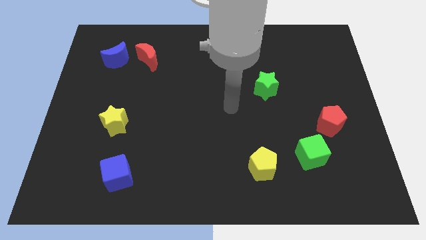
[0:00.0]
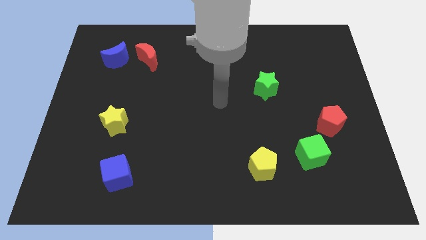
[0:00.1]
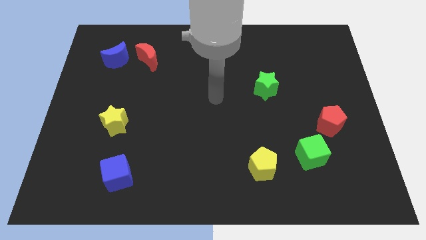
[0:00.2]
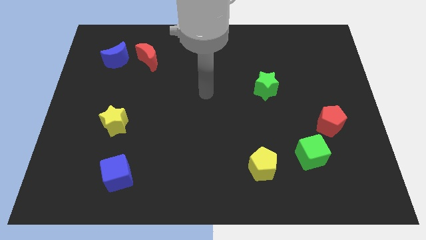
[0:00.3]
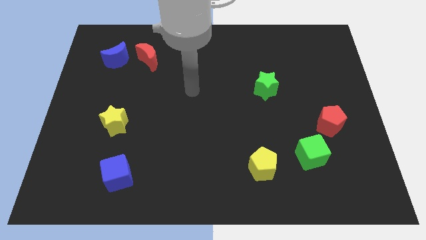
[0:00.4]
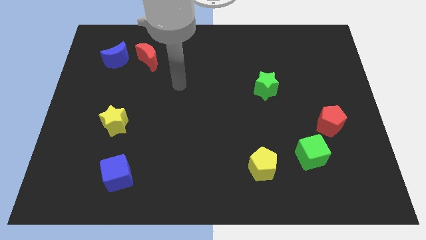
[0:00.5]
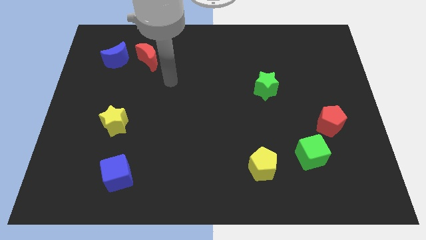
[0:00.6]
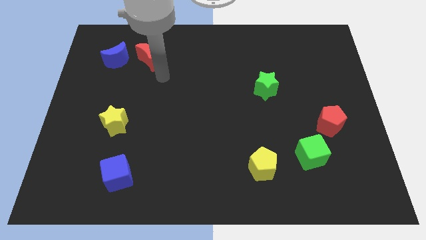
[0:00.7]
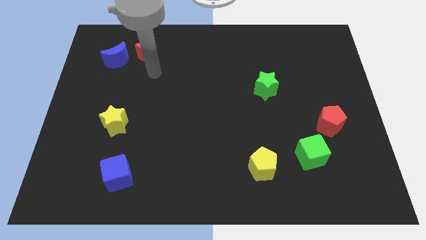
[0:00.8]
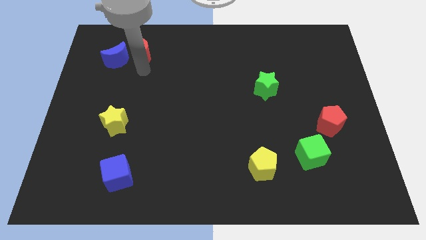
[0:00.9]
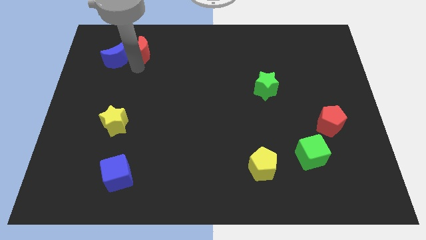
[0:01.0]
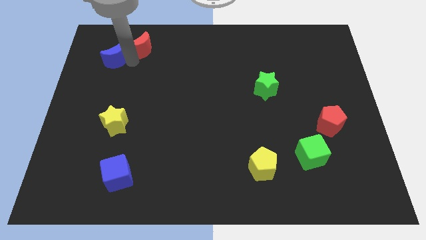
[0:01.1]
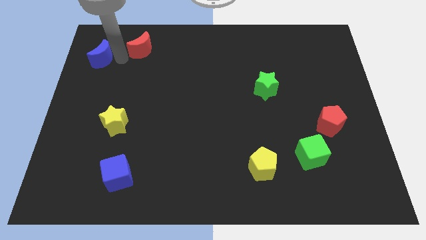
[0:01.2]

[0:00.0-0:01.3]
separate the red moon from the blue moon

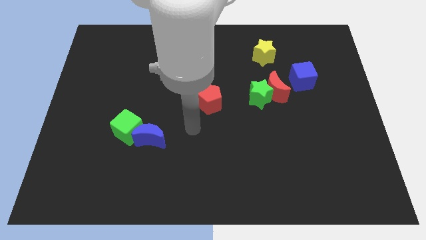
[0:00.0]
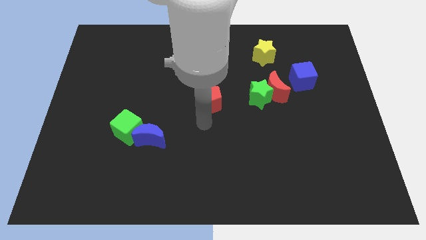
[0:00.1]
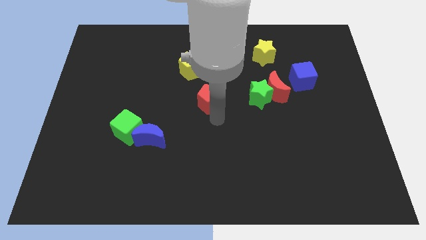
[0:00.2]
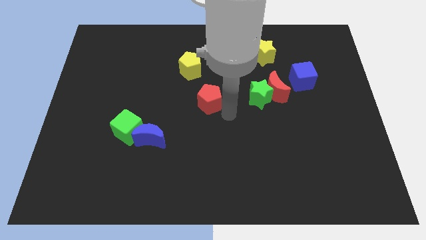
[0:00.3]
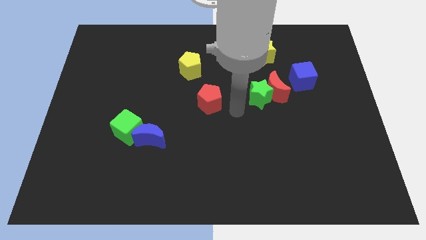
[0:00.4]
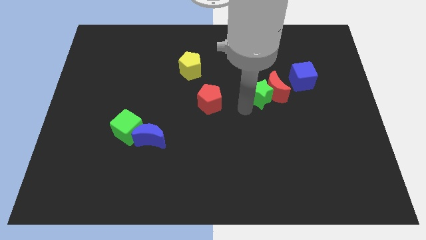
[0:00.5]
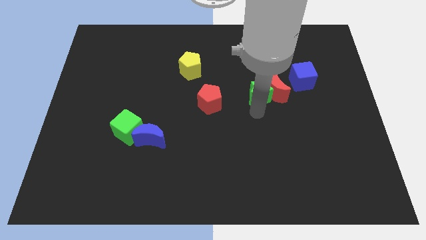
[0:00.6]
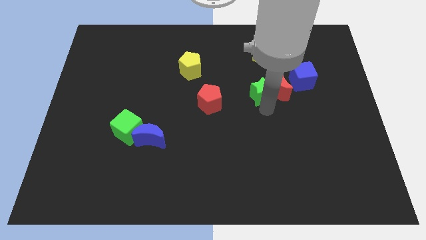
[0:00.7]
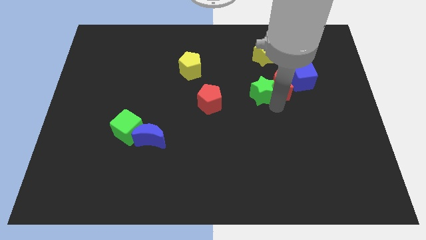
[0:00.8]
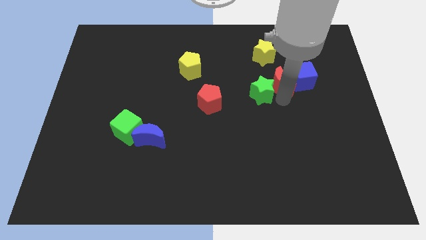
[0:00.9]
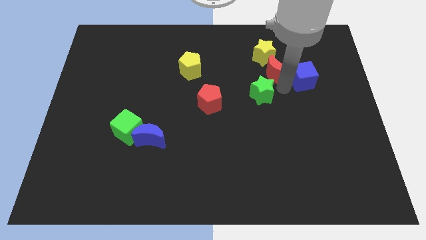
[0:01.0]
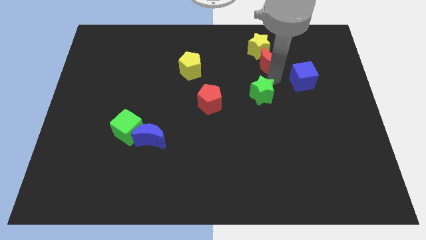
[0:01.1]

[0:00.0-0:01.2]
pull the green star apart from the red moon

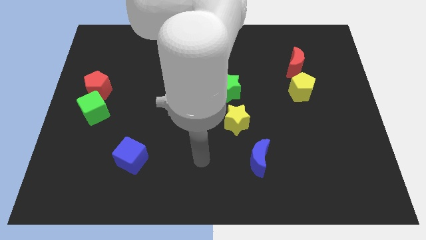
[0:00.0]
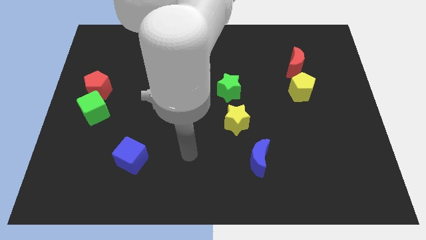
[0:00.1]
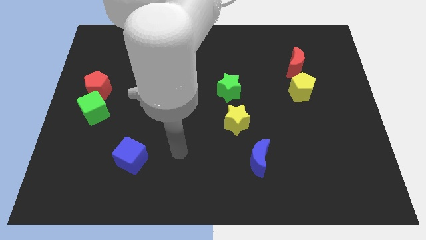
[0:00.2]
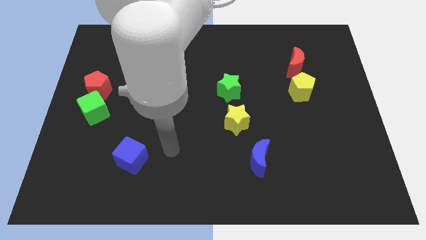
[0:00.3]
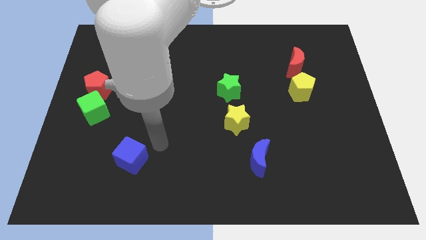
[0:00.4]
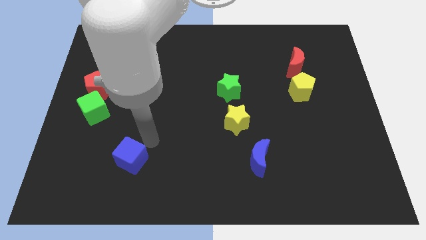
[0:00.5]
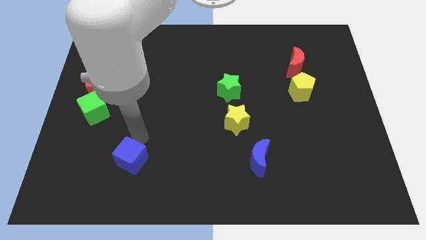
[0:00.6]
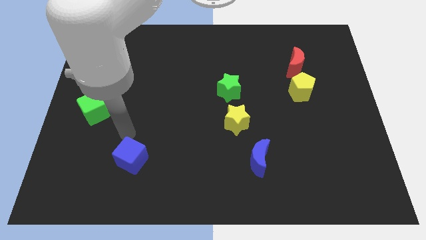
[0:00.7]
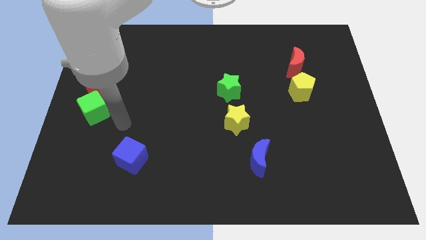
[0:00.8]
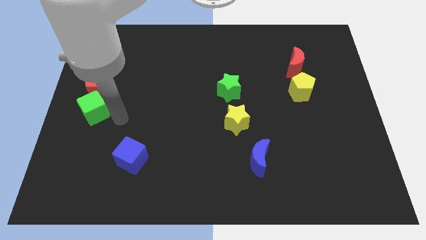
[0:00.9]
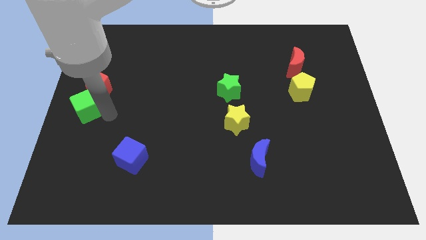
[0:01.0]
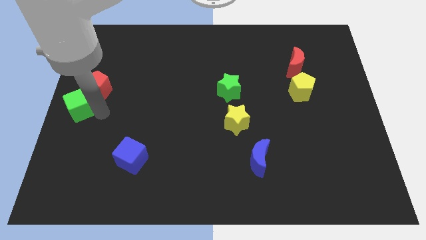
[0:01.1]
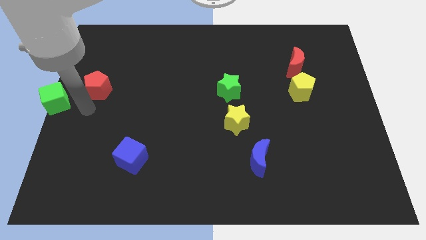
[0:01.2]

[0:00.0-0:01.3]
separate the red pentagon from the green cube

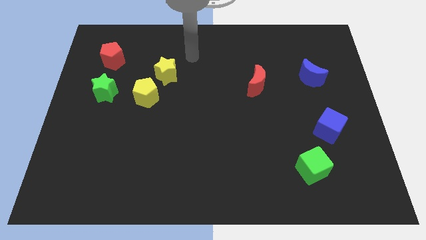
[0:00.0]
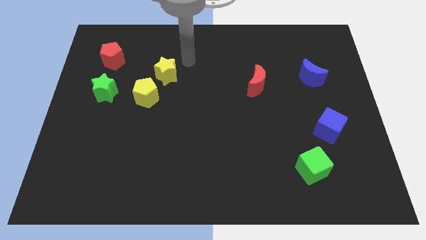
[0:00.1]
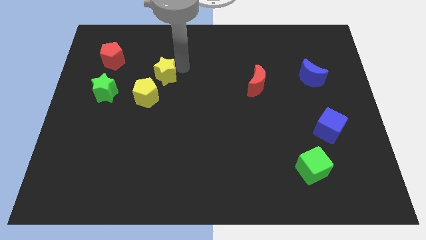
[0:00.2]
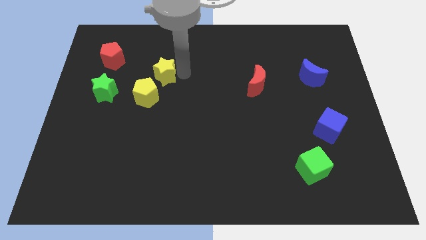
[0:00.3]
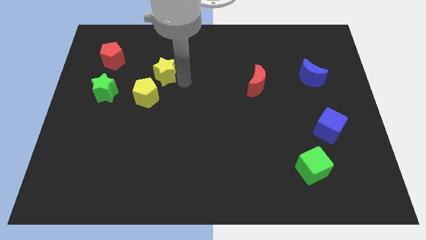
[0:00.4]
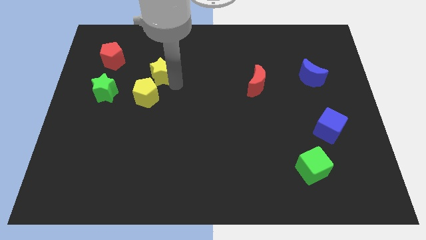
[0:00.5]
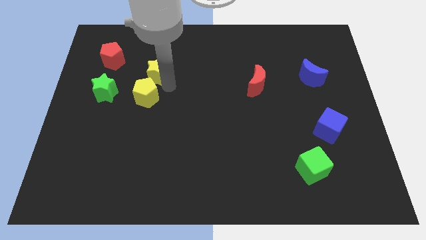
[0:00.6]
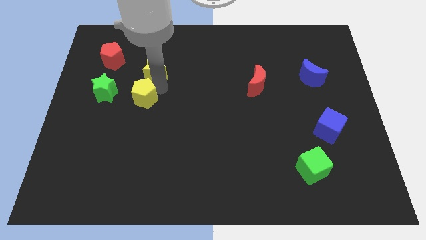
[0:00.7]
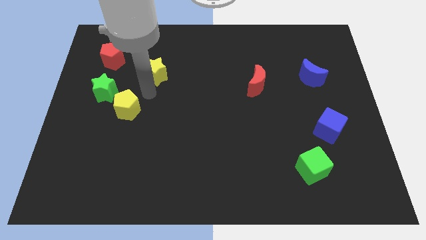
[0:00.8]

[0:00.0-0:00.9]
move the yellow star away from the yellow pentagon

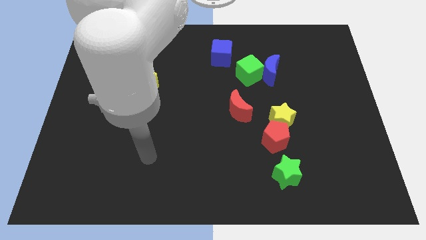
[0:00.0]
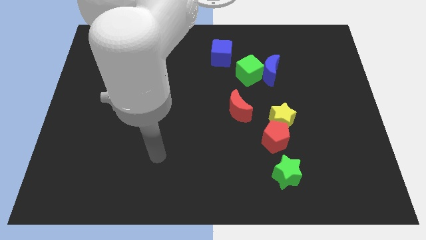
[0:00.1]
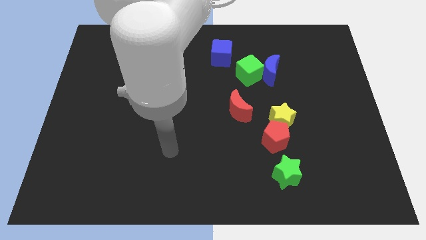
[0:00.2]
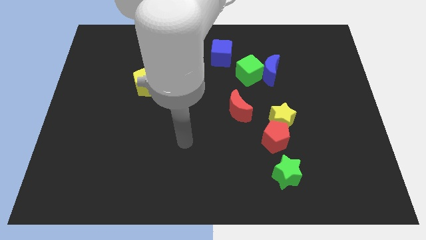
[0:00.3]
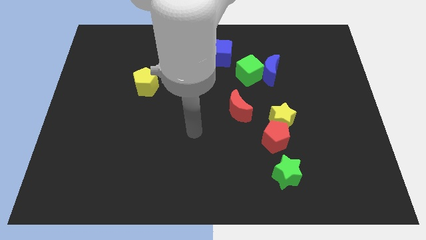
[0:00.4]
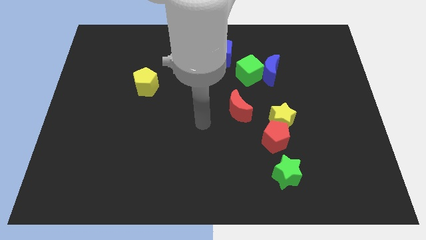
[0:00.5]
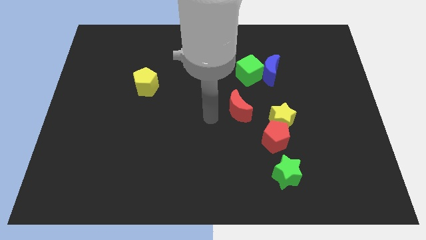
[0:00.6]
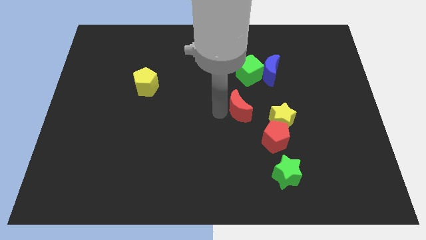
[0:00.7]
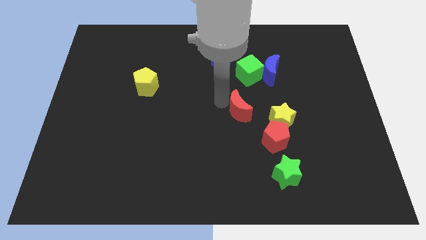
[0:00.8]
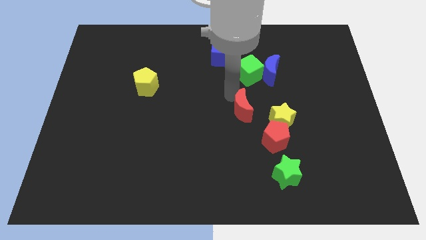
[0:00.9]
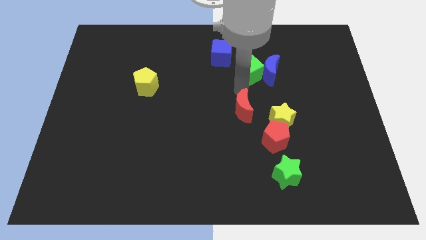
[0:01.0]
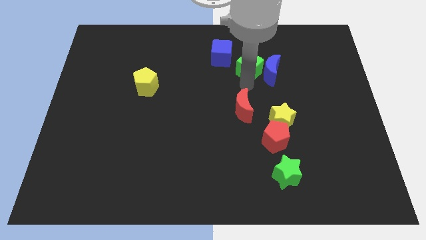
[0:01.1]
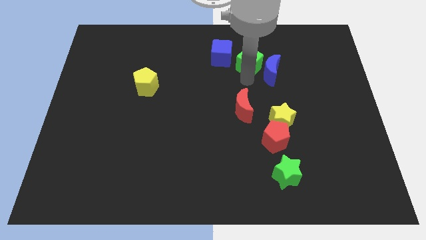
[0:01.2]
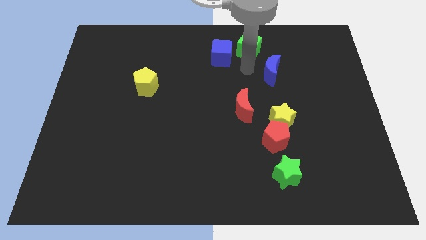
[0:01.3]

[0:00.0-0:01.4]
separate the blue moon from the green cube

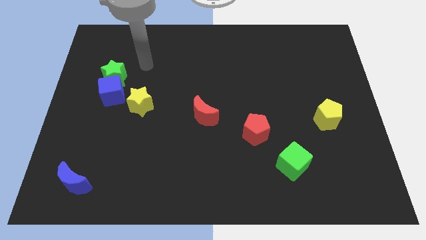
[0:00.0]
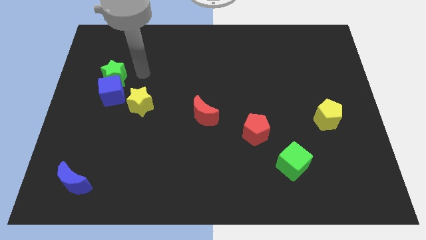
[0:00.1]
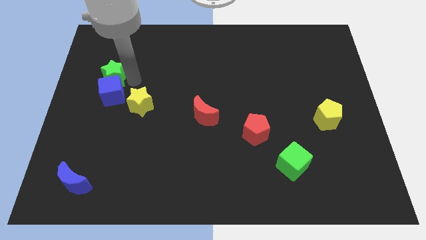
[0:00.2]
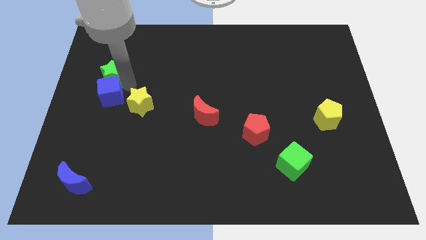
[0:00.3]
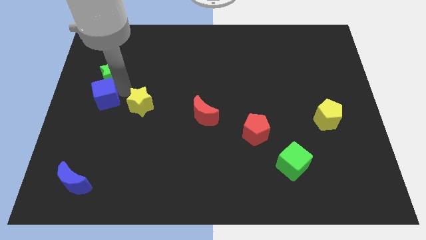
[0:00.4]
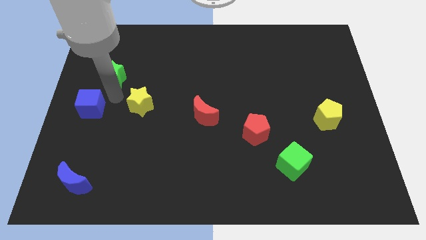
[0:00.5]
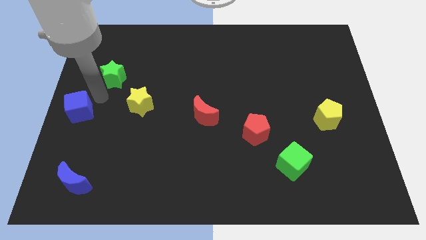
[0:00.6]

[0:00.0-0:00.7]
move the green star away from the blue cube

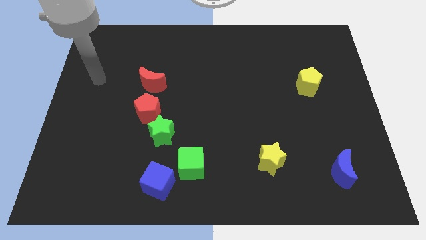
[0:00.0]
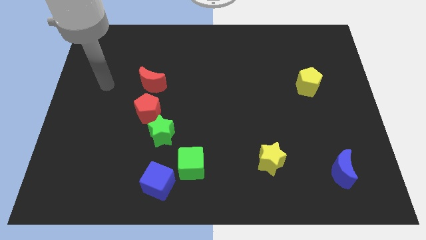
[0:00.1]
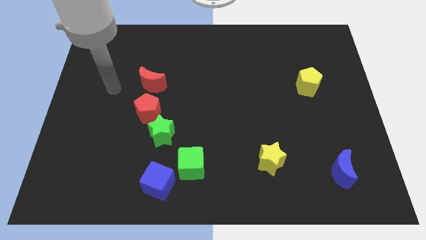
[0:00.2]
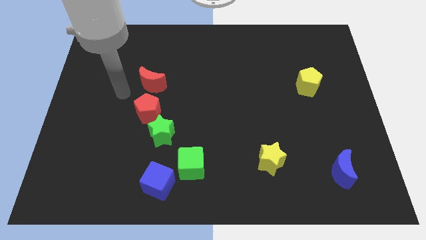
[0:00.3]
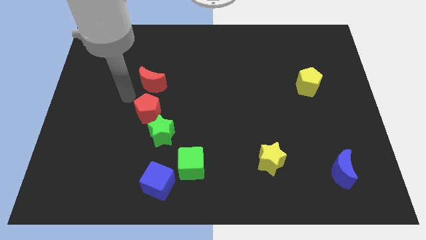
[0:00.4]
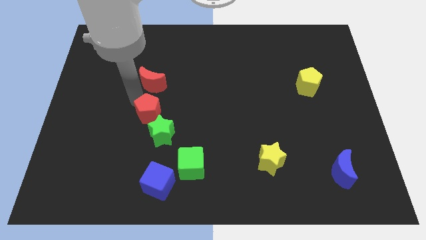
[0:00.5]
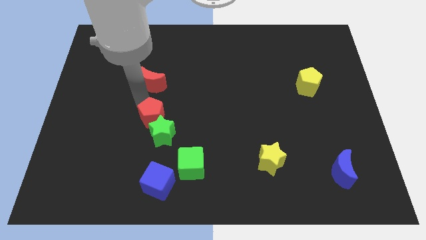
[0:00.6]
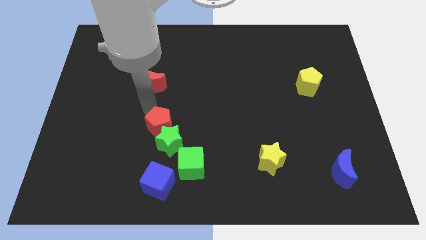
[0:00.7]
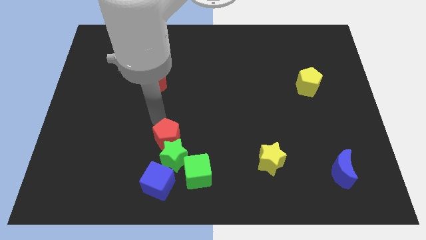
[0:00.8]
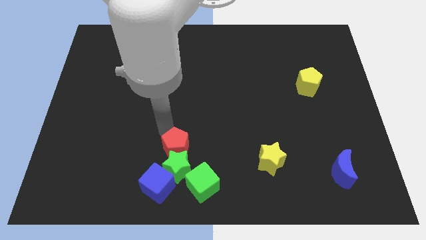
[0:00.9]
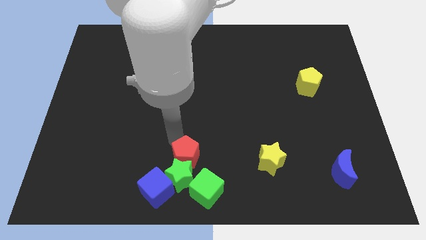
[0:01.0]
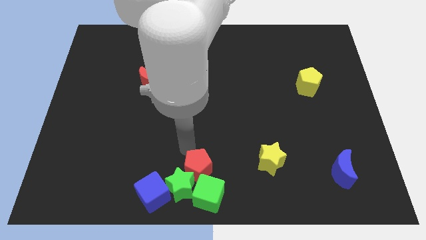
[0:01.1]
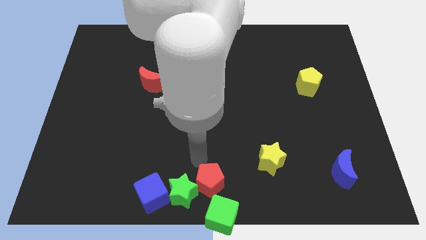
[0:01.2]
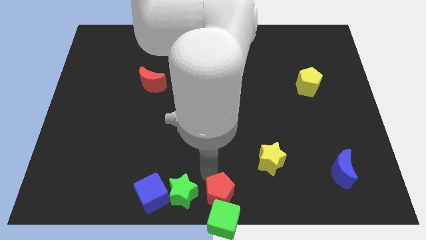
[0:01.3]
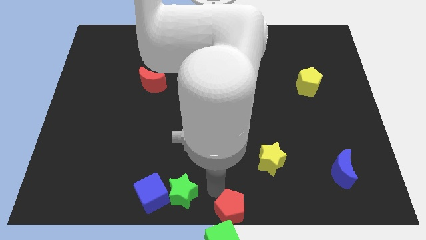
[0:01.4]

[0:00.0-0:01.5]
separate the green star from the red pentagon

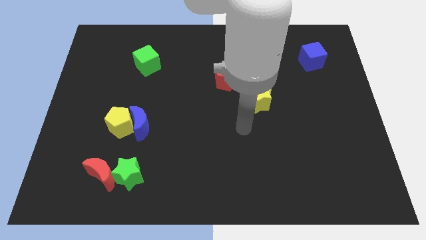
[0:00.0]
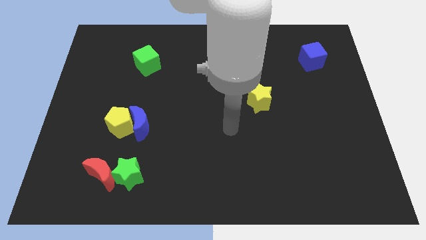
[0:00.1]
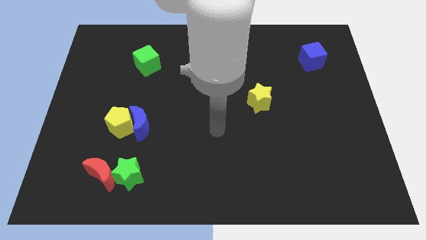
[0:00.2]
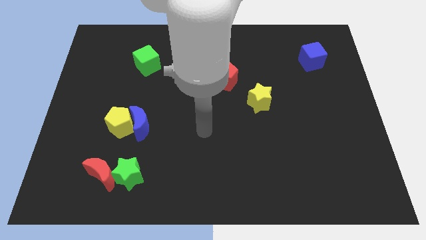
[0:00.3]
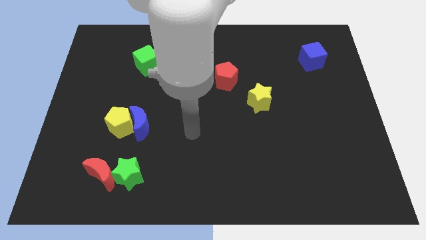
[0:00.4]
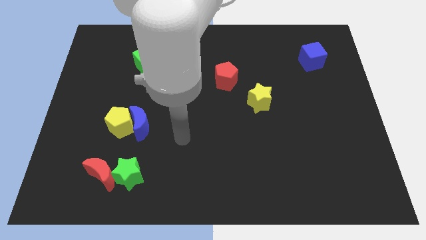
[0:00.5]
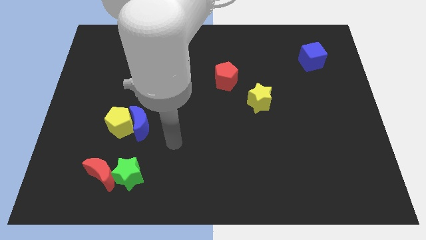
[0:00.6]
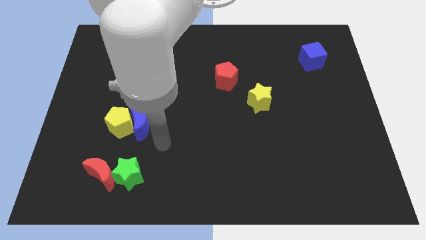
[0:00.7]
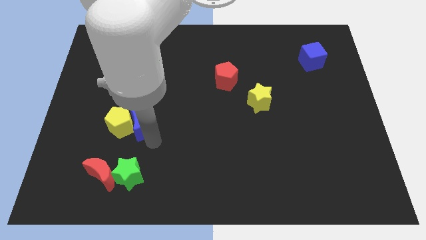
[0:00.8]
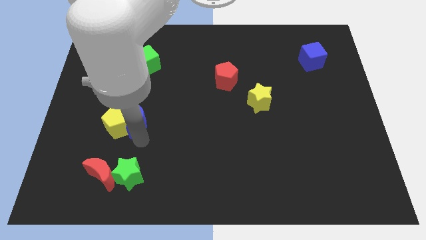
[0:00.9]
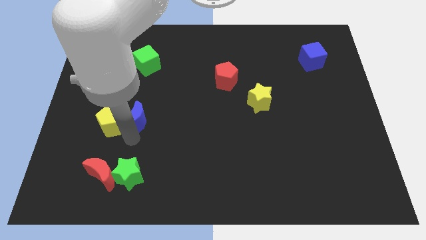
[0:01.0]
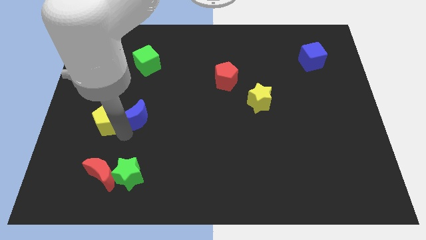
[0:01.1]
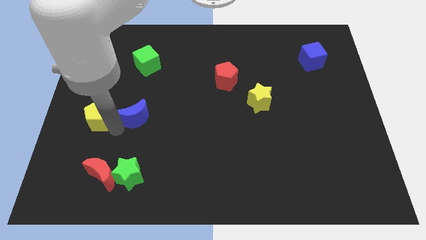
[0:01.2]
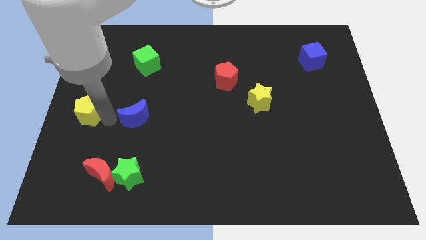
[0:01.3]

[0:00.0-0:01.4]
move the blue moon away from the yellow pentagon
